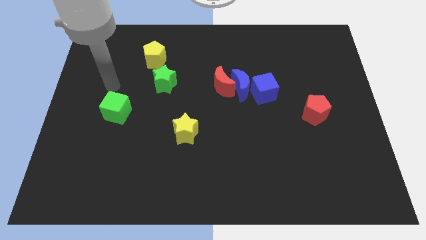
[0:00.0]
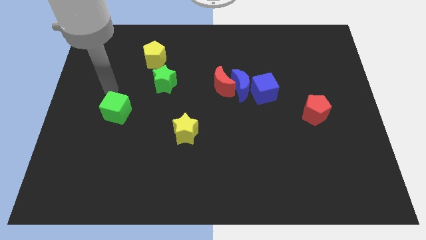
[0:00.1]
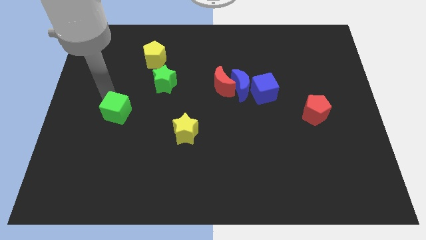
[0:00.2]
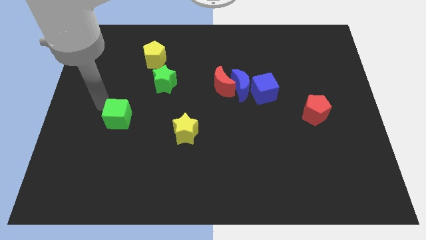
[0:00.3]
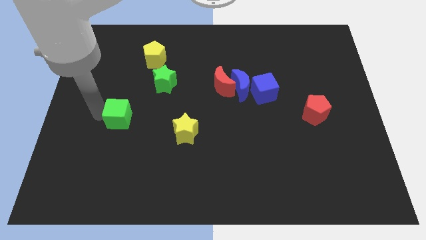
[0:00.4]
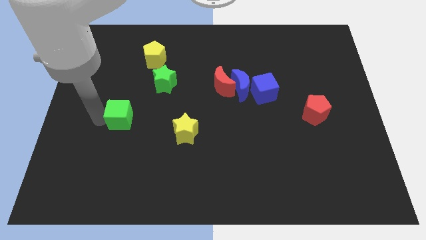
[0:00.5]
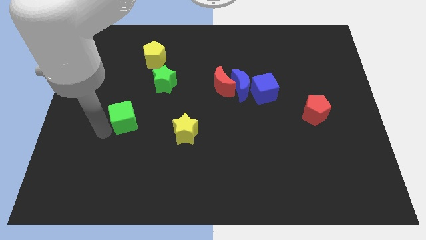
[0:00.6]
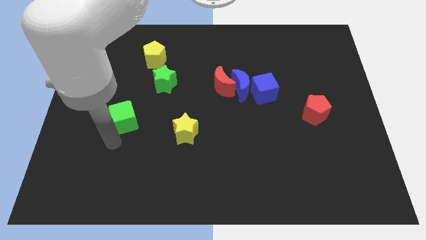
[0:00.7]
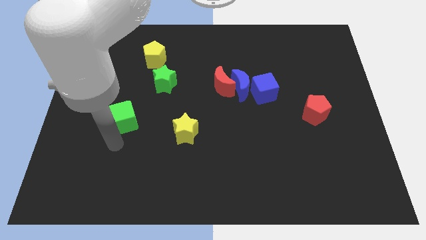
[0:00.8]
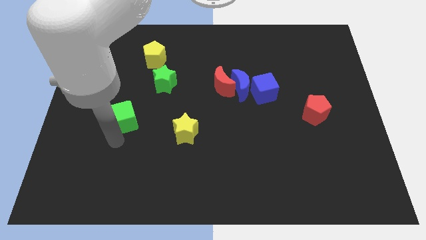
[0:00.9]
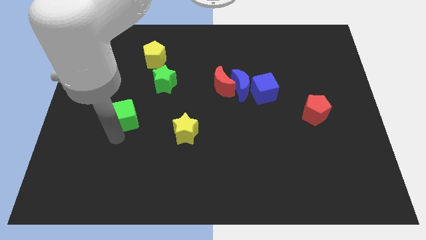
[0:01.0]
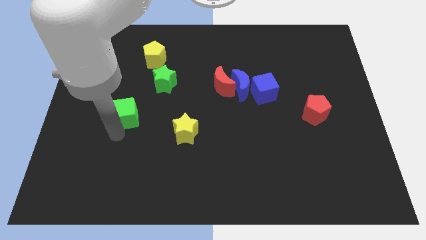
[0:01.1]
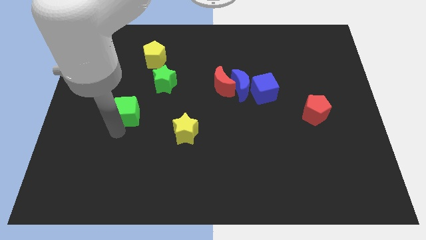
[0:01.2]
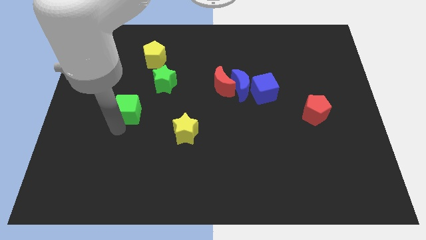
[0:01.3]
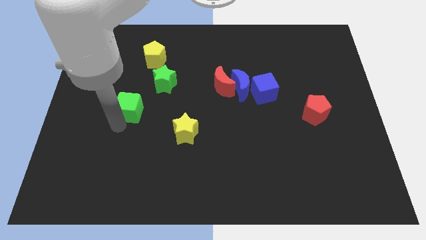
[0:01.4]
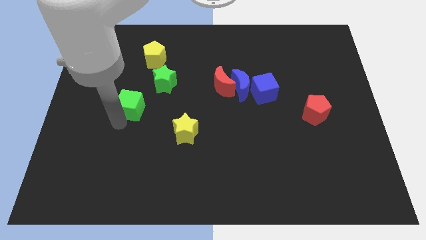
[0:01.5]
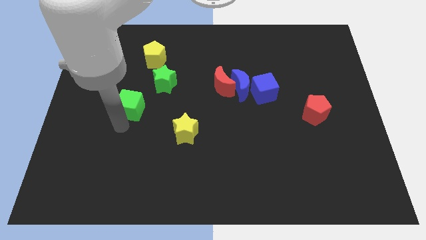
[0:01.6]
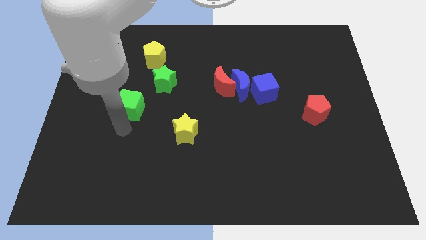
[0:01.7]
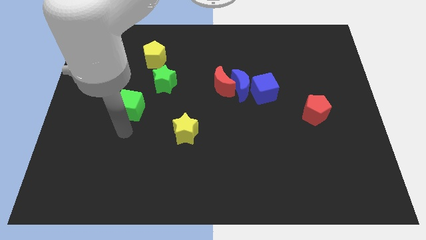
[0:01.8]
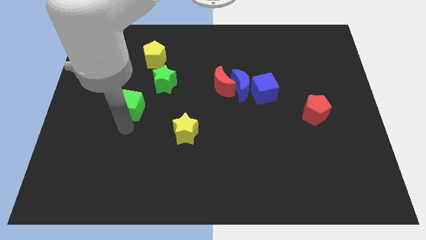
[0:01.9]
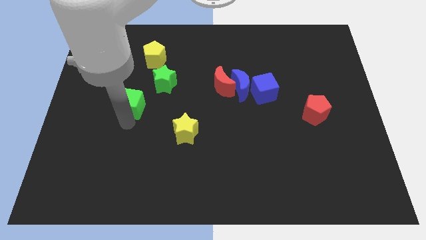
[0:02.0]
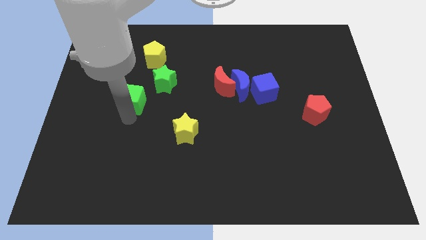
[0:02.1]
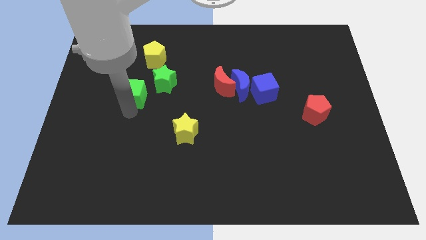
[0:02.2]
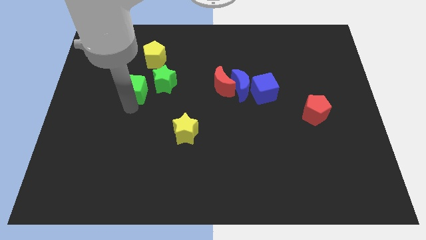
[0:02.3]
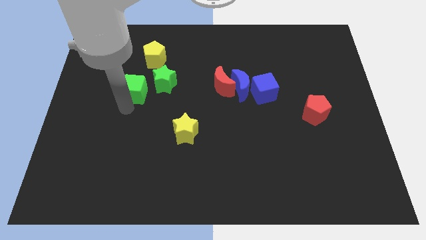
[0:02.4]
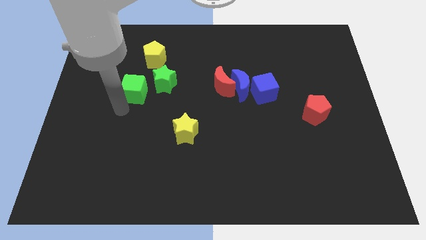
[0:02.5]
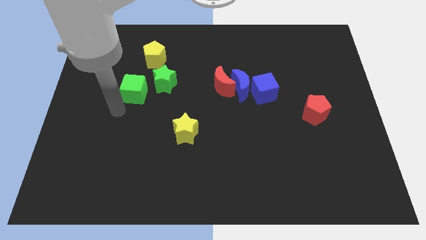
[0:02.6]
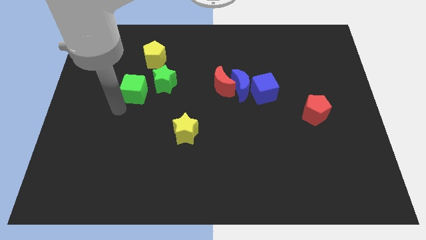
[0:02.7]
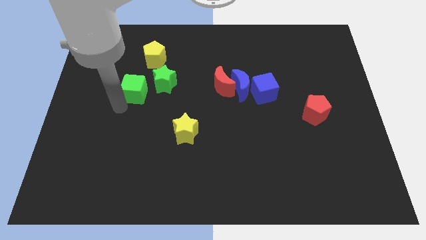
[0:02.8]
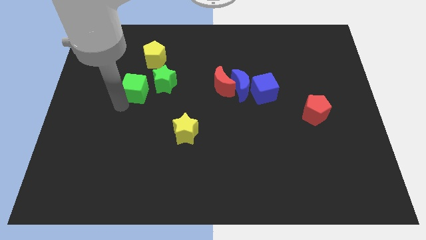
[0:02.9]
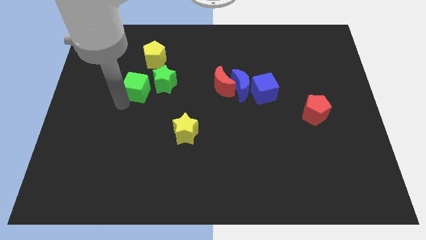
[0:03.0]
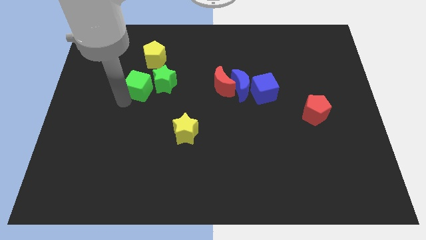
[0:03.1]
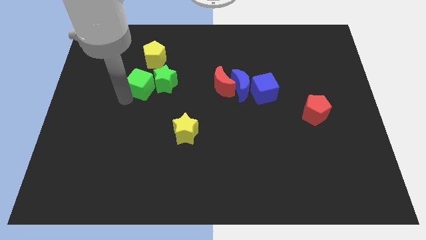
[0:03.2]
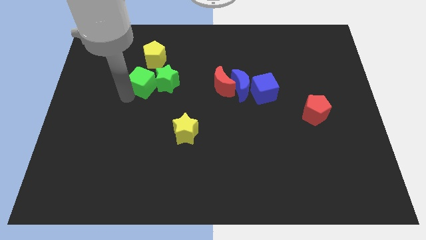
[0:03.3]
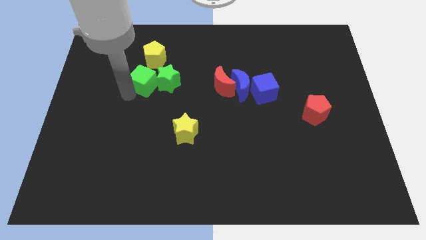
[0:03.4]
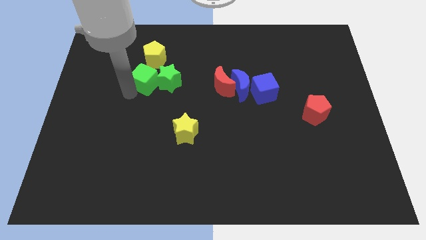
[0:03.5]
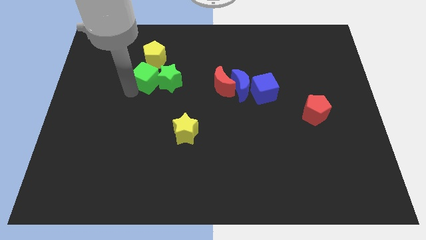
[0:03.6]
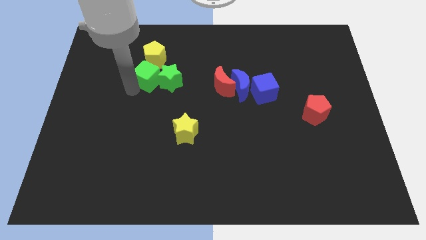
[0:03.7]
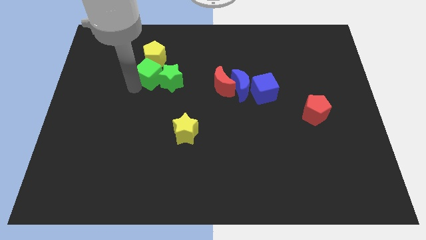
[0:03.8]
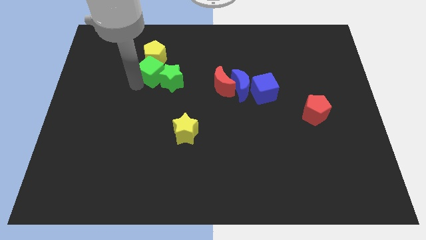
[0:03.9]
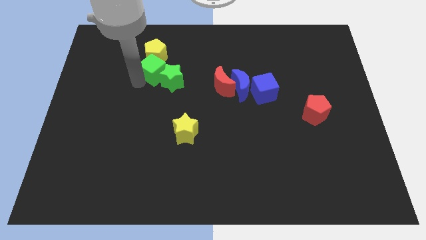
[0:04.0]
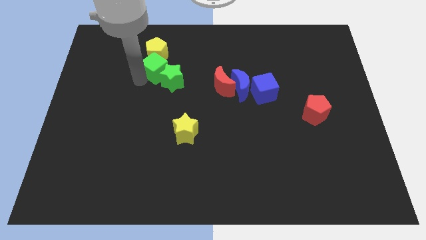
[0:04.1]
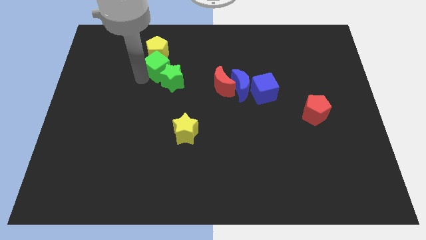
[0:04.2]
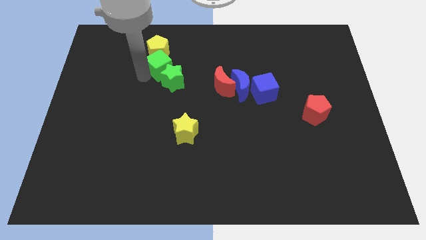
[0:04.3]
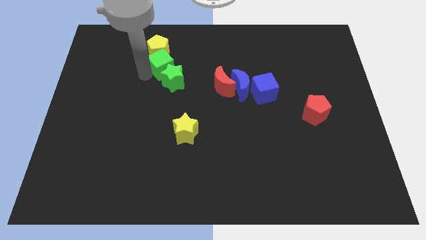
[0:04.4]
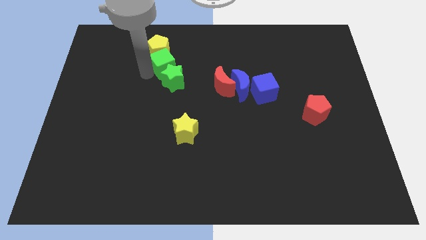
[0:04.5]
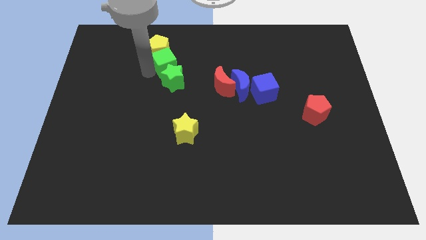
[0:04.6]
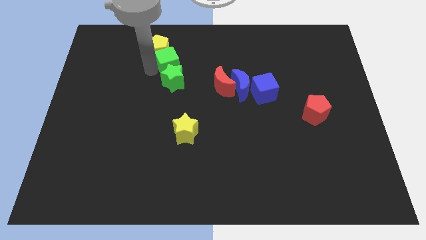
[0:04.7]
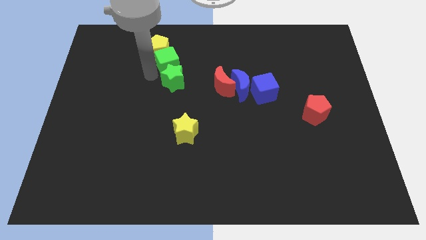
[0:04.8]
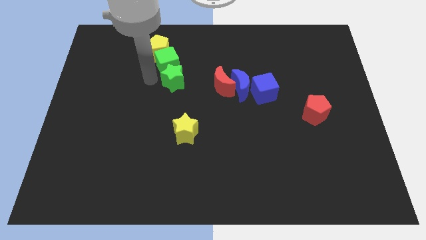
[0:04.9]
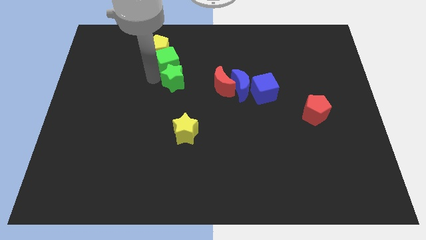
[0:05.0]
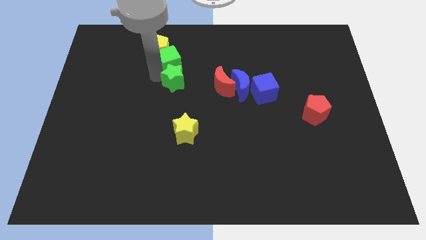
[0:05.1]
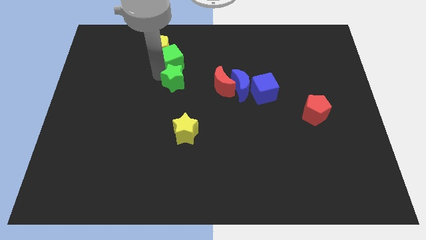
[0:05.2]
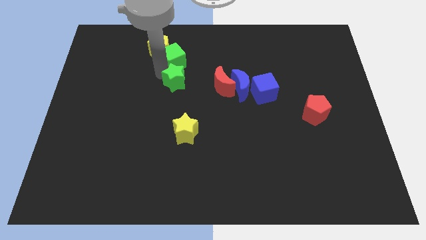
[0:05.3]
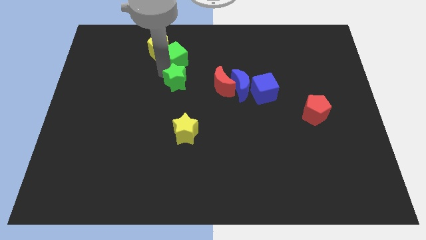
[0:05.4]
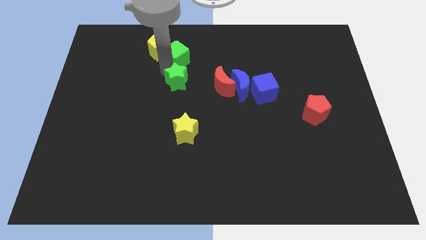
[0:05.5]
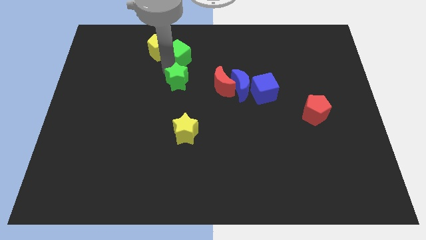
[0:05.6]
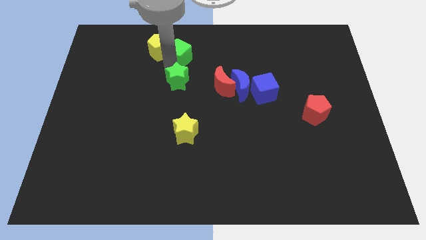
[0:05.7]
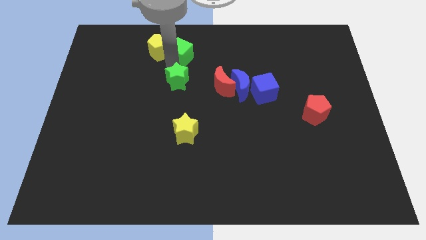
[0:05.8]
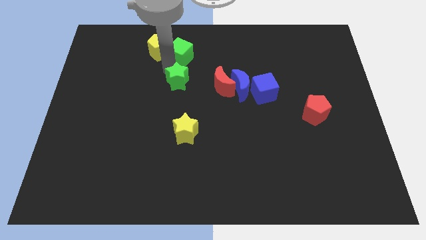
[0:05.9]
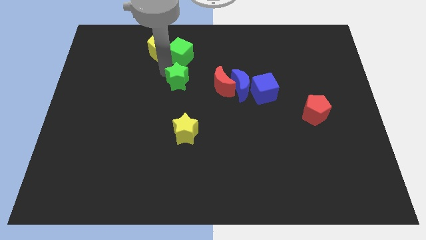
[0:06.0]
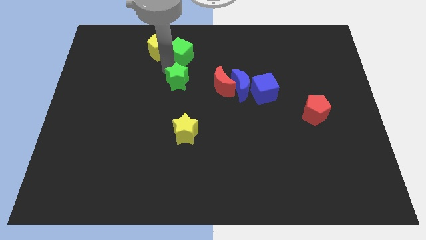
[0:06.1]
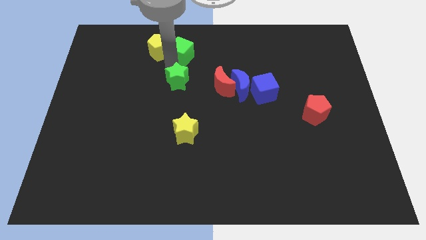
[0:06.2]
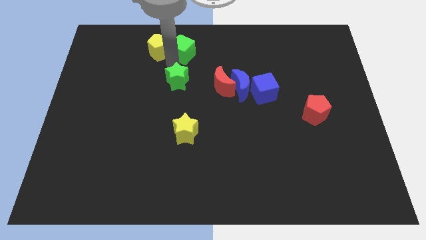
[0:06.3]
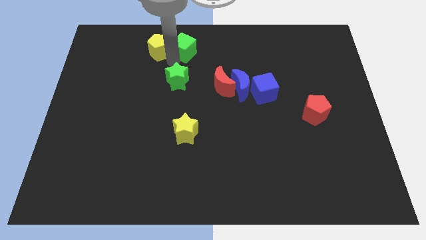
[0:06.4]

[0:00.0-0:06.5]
slide the green cube to the towards your base
